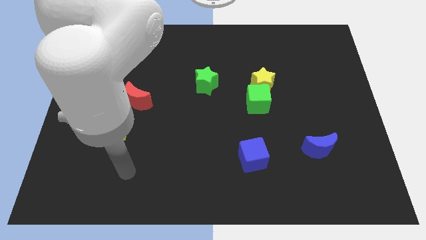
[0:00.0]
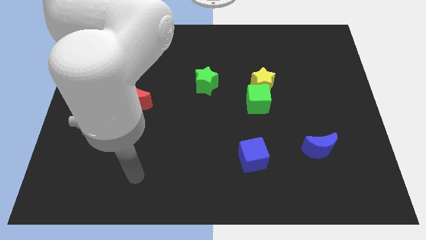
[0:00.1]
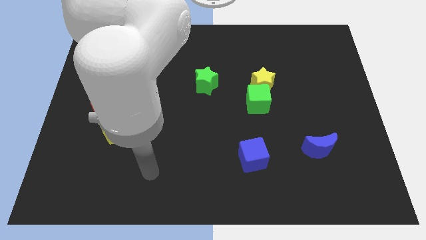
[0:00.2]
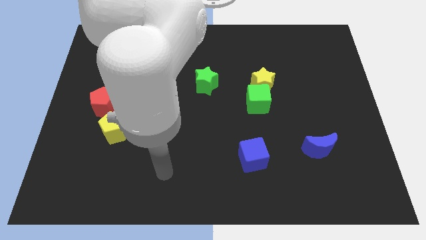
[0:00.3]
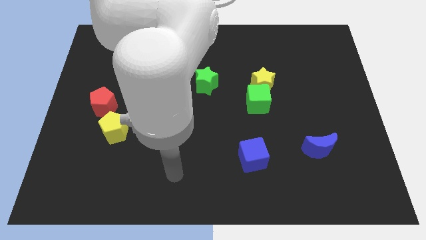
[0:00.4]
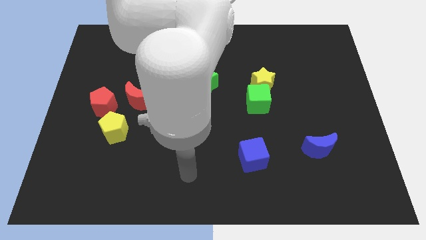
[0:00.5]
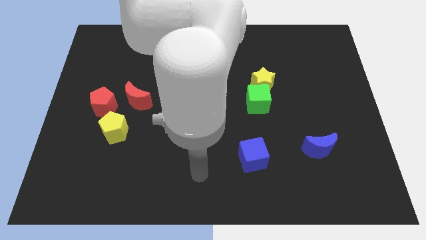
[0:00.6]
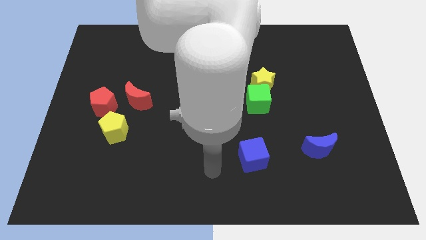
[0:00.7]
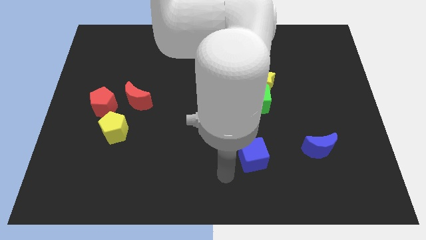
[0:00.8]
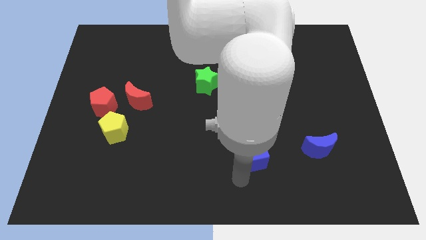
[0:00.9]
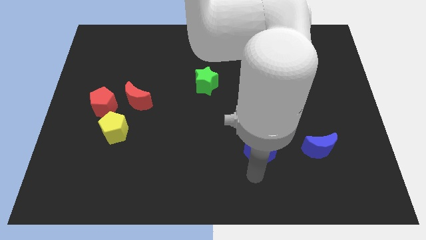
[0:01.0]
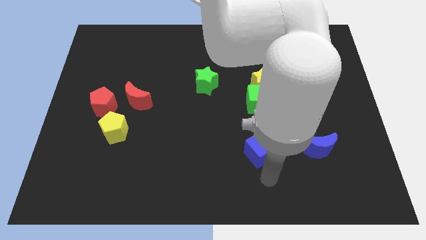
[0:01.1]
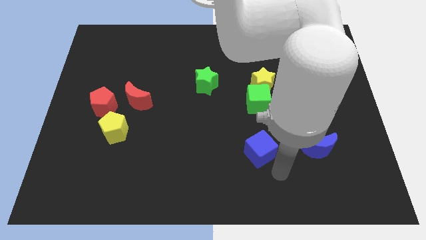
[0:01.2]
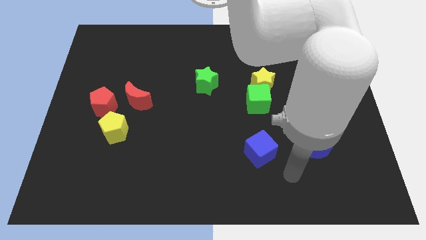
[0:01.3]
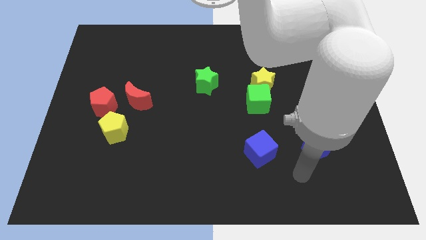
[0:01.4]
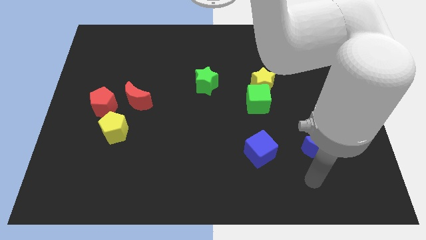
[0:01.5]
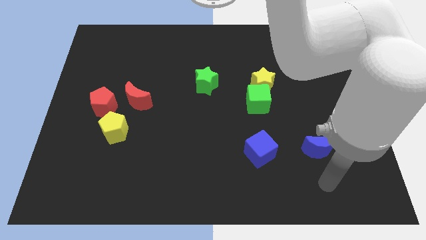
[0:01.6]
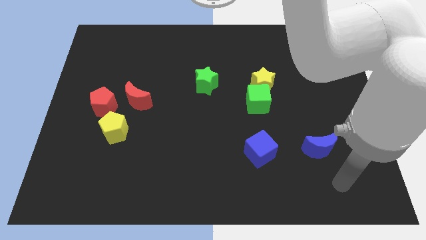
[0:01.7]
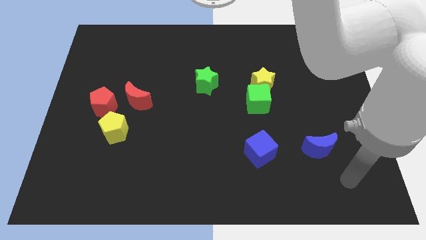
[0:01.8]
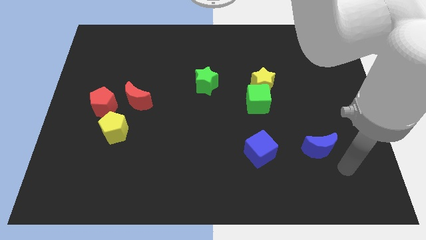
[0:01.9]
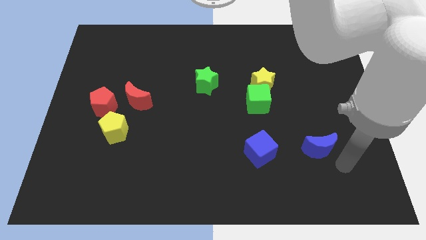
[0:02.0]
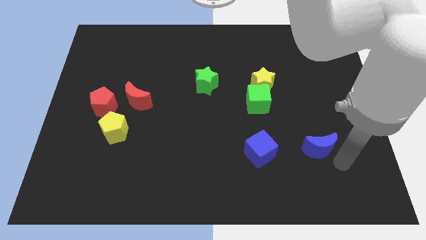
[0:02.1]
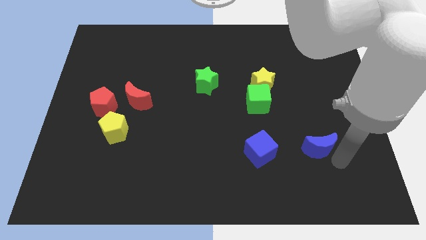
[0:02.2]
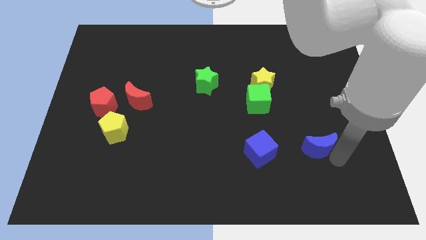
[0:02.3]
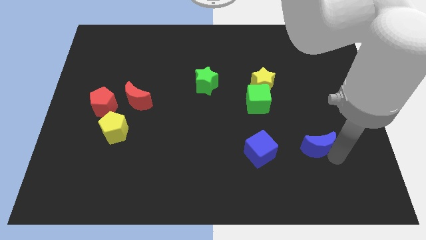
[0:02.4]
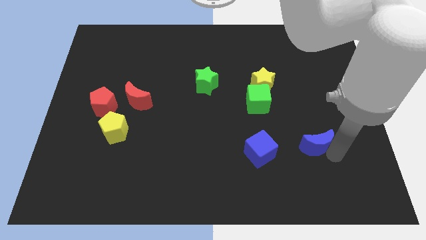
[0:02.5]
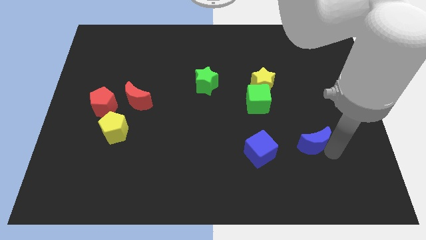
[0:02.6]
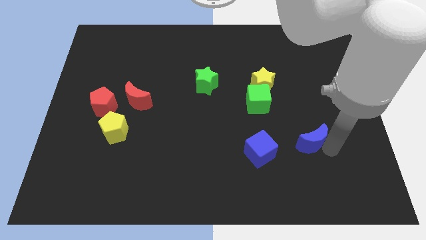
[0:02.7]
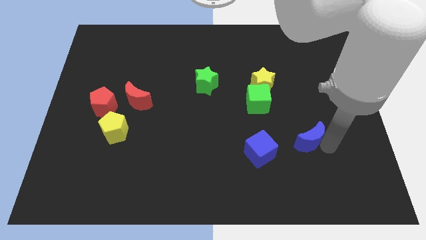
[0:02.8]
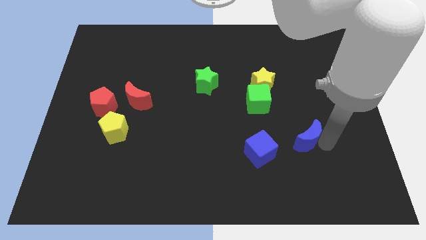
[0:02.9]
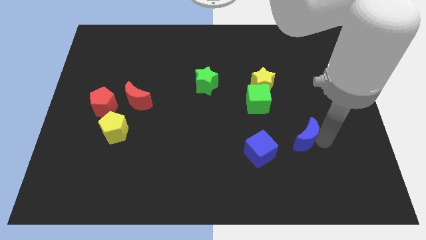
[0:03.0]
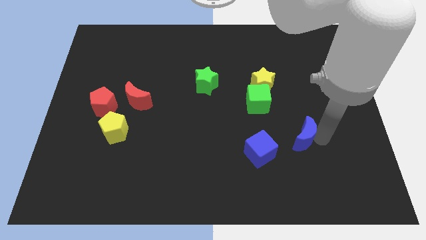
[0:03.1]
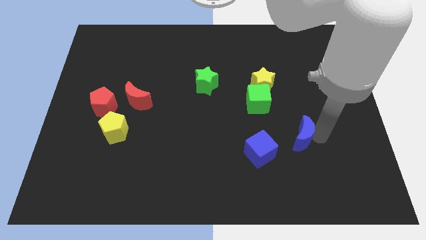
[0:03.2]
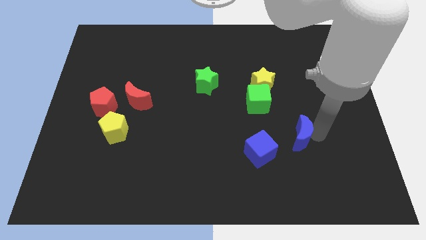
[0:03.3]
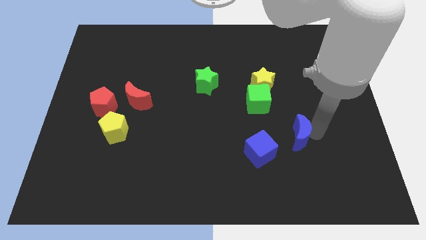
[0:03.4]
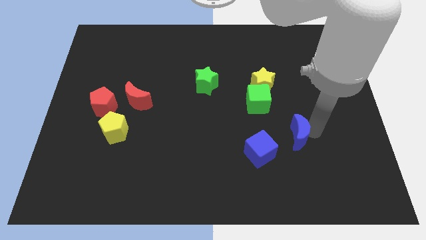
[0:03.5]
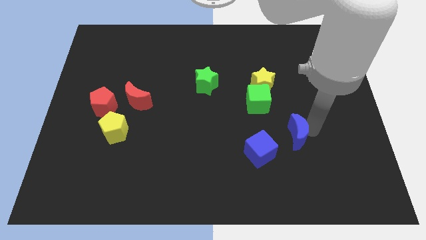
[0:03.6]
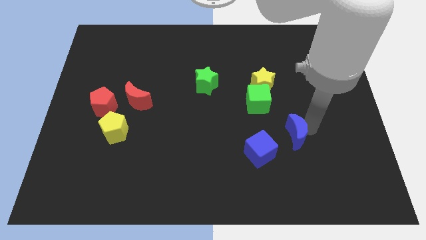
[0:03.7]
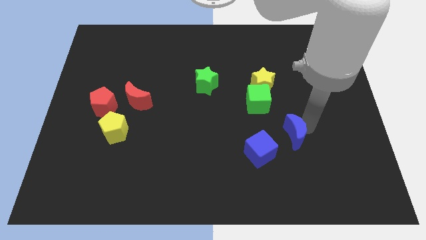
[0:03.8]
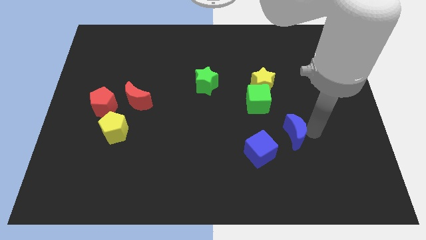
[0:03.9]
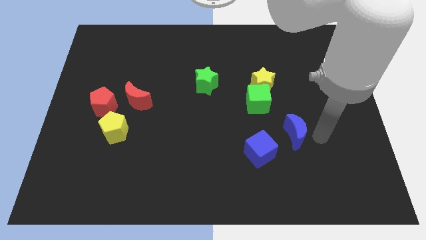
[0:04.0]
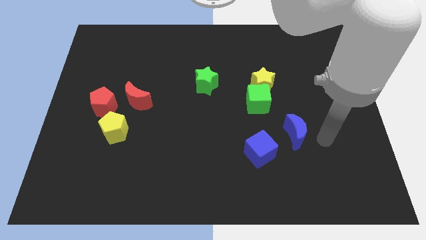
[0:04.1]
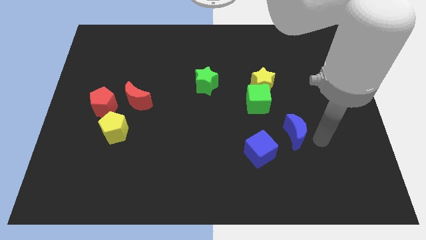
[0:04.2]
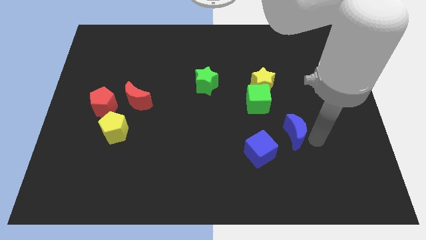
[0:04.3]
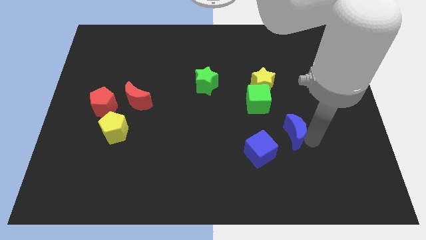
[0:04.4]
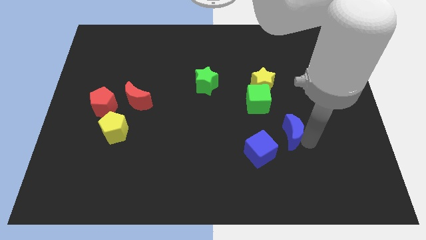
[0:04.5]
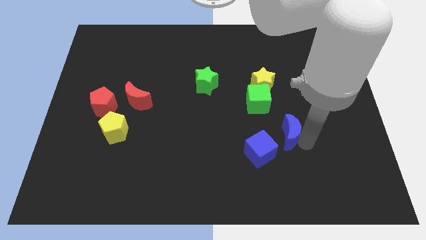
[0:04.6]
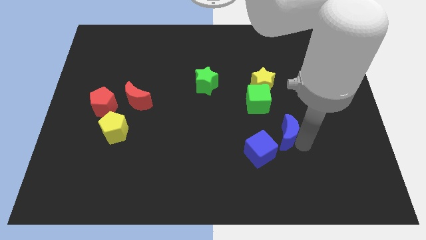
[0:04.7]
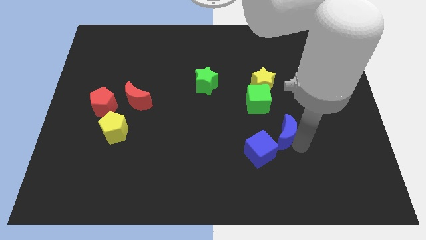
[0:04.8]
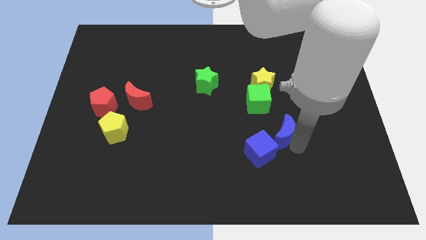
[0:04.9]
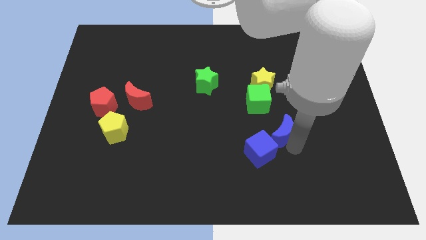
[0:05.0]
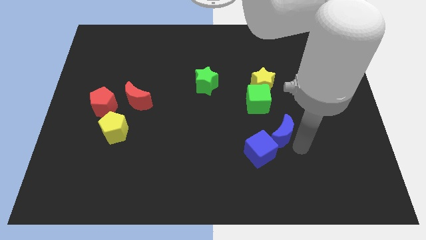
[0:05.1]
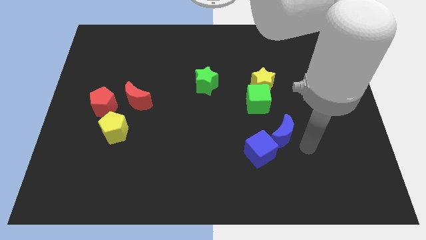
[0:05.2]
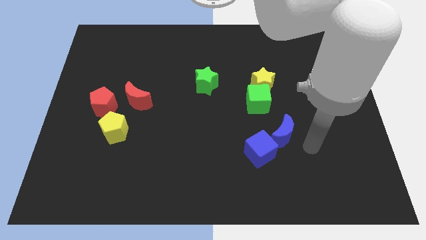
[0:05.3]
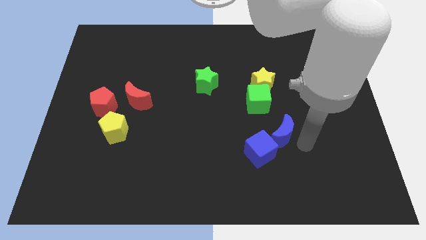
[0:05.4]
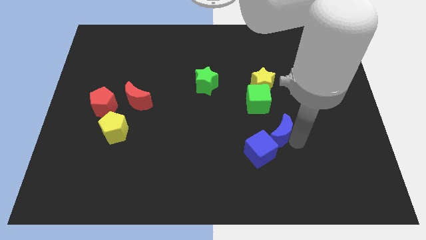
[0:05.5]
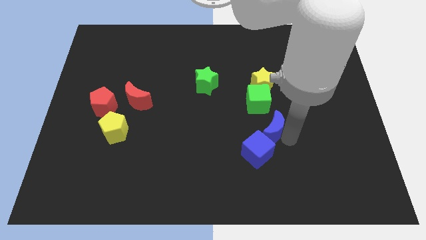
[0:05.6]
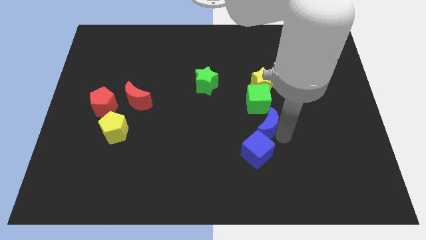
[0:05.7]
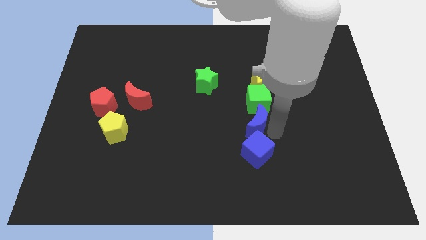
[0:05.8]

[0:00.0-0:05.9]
move the blue moon to the center of the board

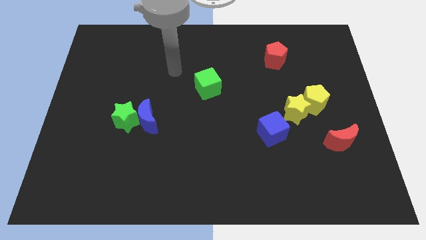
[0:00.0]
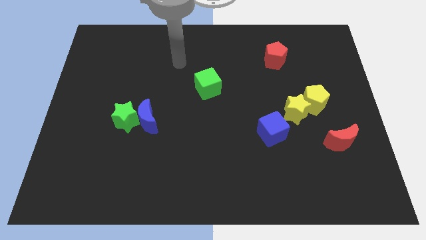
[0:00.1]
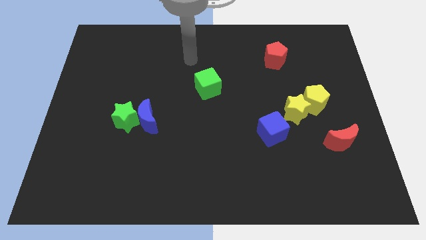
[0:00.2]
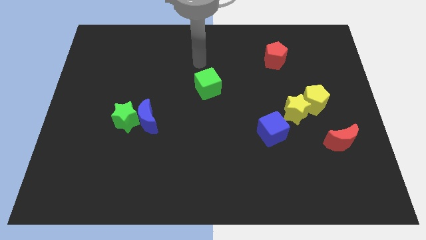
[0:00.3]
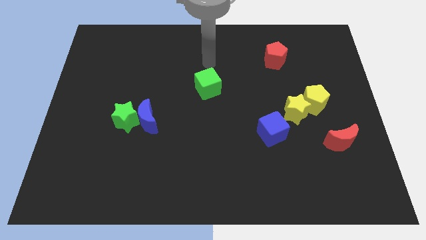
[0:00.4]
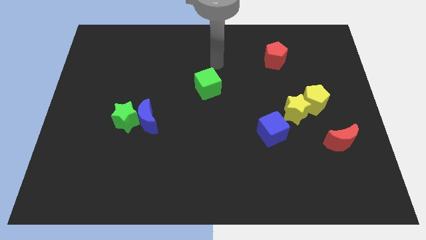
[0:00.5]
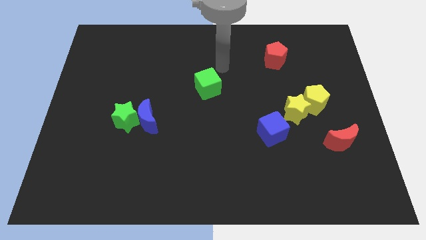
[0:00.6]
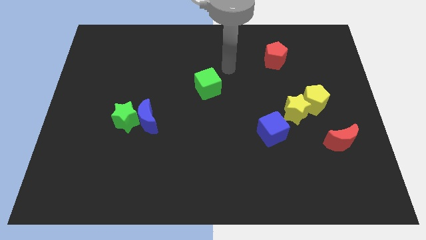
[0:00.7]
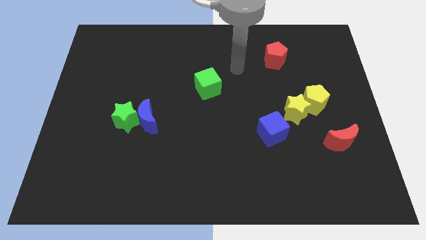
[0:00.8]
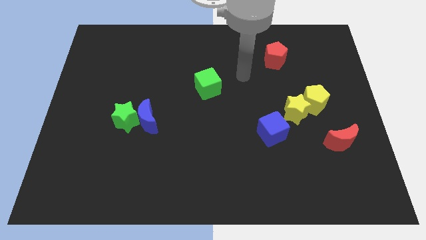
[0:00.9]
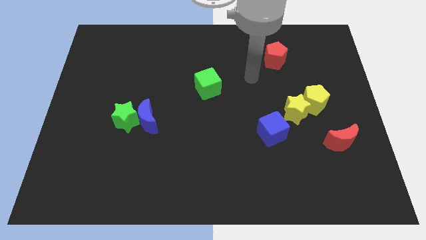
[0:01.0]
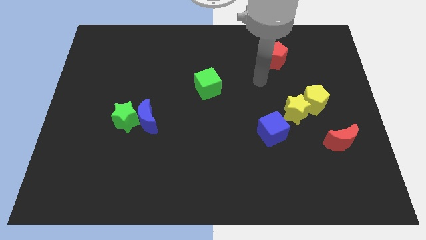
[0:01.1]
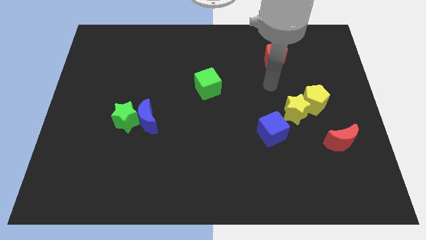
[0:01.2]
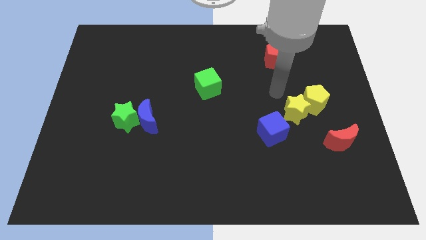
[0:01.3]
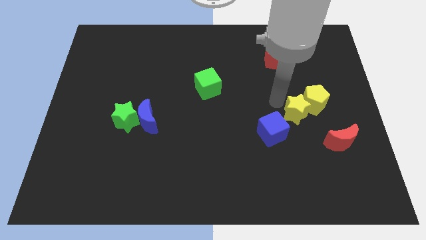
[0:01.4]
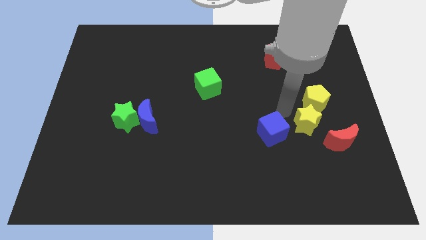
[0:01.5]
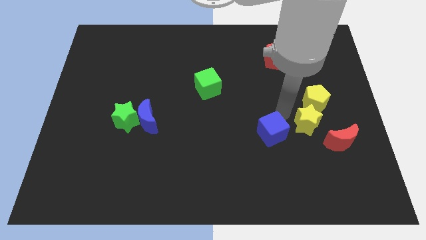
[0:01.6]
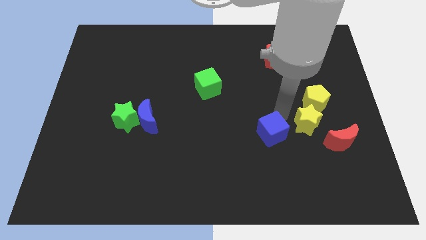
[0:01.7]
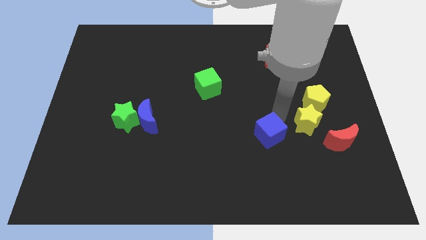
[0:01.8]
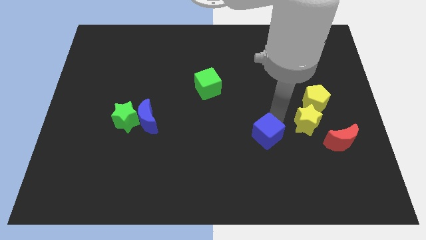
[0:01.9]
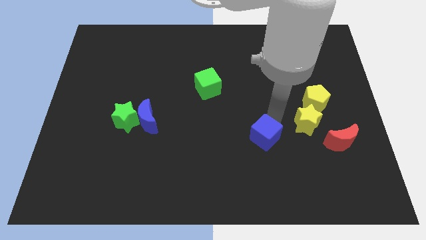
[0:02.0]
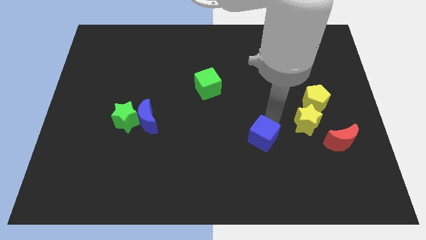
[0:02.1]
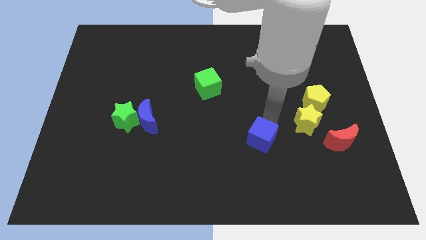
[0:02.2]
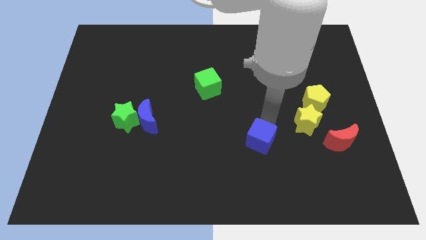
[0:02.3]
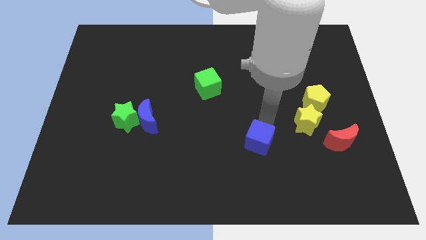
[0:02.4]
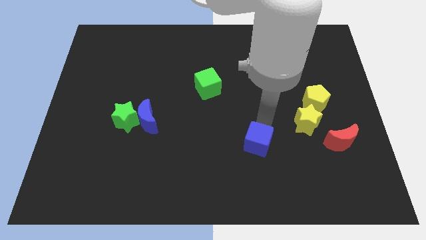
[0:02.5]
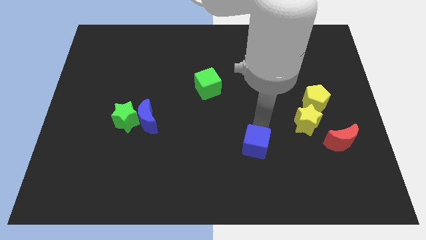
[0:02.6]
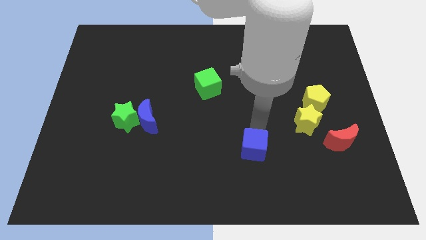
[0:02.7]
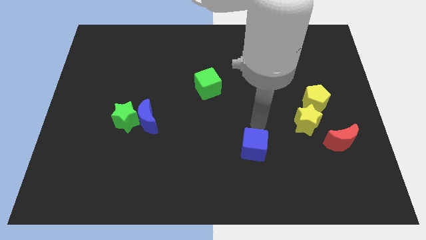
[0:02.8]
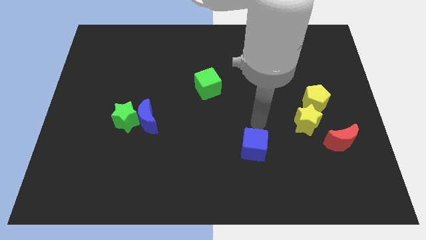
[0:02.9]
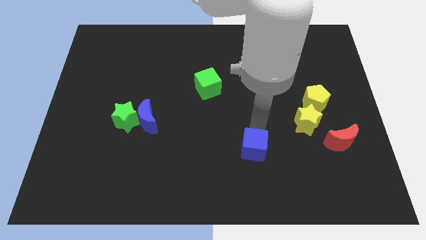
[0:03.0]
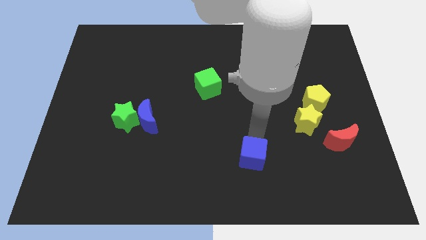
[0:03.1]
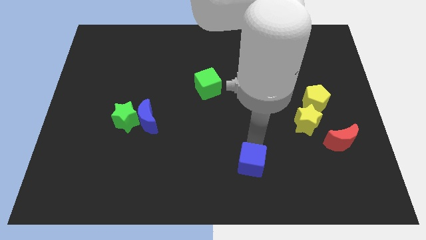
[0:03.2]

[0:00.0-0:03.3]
put the blue cube to the bottom side
